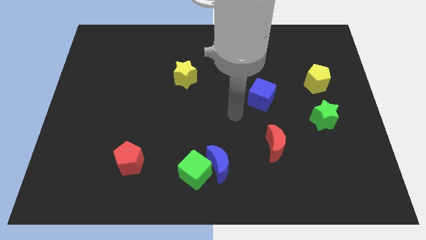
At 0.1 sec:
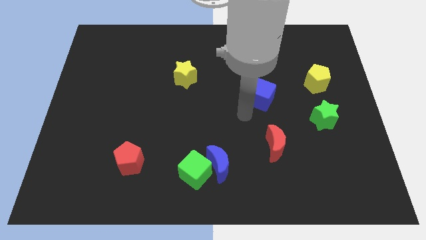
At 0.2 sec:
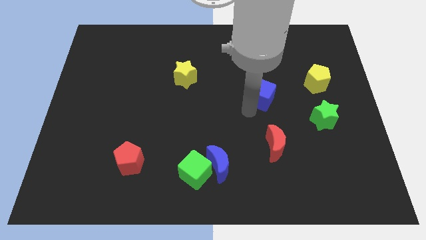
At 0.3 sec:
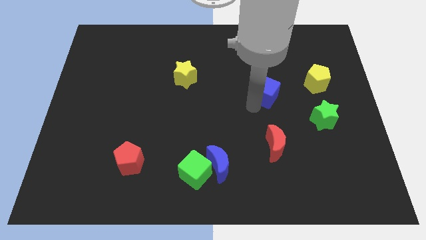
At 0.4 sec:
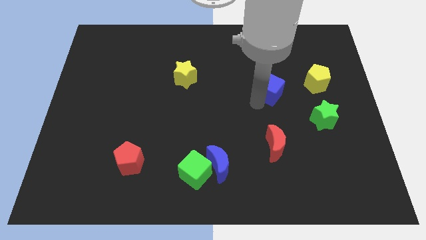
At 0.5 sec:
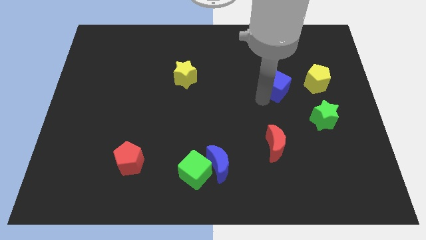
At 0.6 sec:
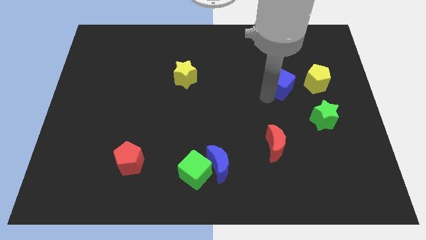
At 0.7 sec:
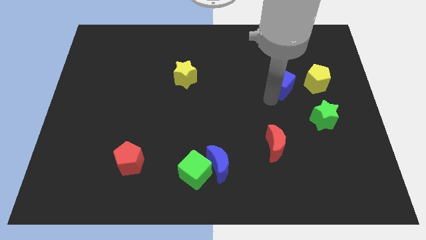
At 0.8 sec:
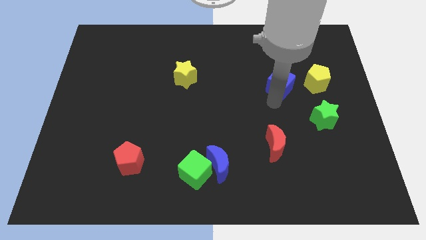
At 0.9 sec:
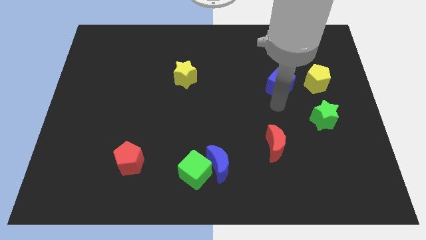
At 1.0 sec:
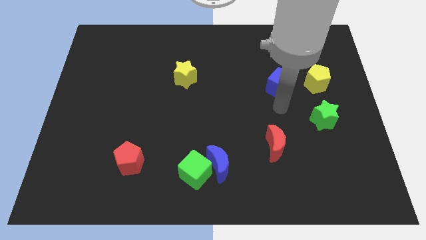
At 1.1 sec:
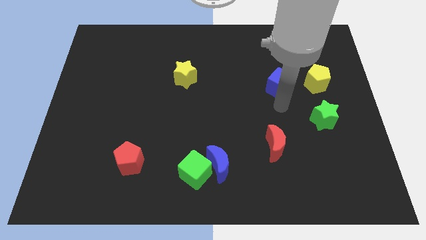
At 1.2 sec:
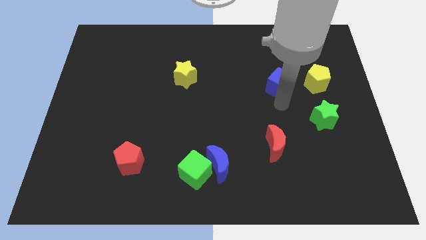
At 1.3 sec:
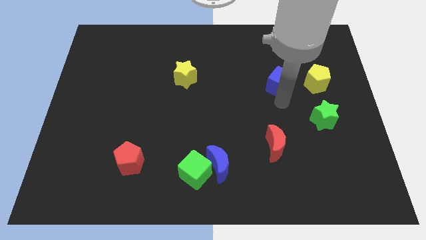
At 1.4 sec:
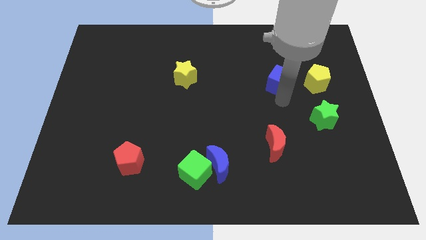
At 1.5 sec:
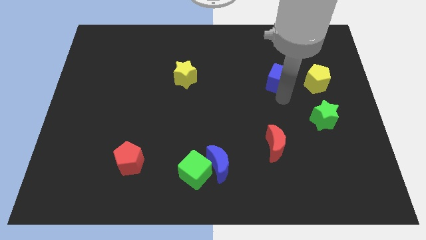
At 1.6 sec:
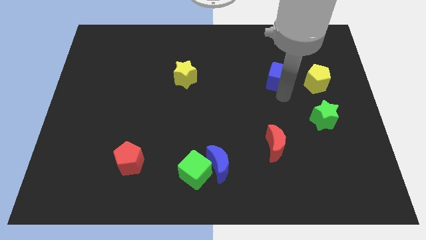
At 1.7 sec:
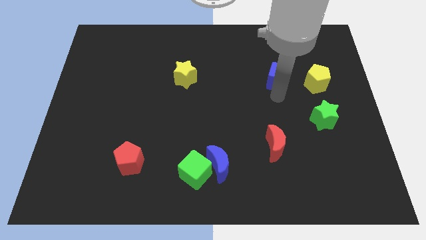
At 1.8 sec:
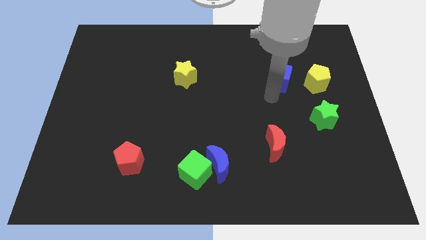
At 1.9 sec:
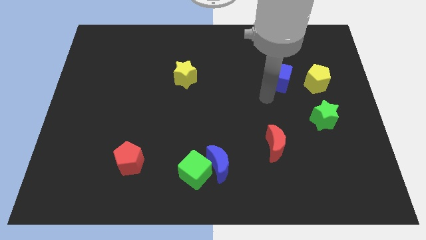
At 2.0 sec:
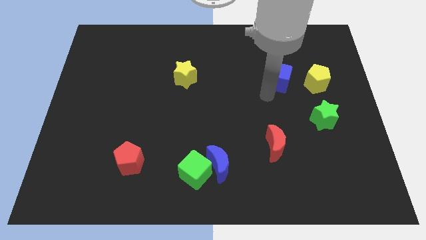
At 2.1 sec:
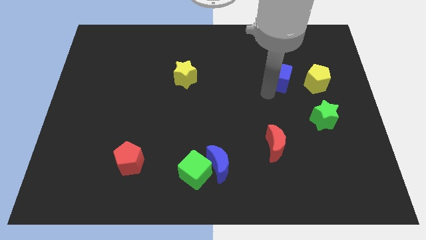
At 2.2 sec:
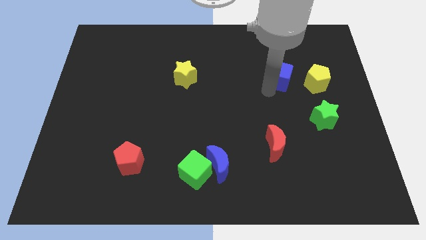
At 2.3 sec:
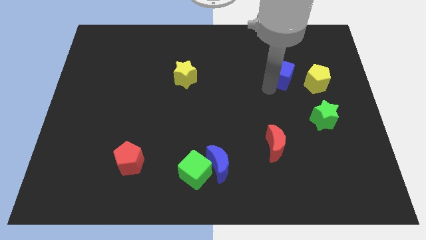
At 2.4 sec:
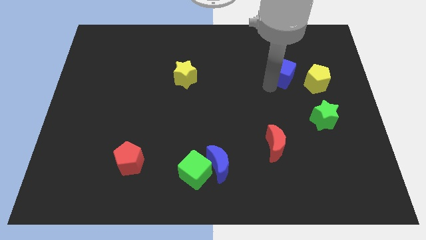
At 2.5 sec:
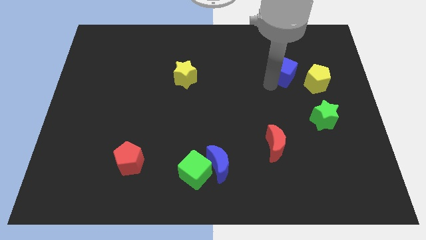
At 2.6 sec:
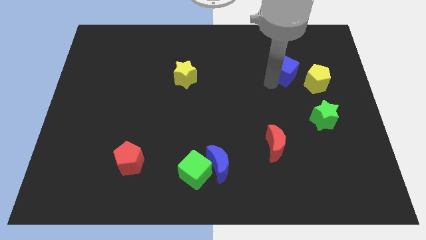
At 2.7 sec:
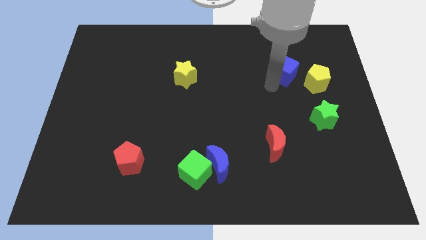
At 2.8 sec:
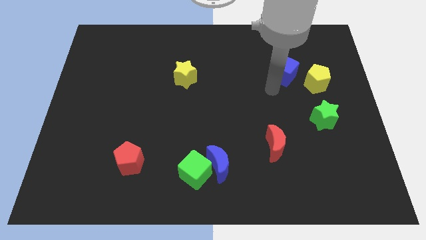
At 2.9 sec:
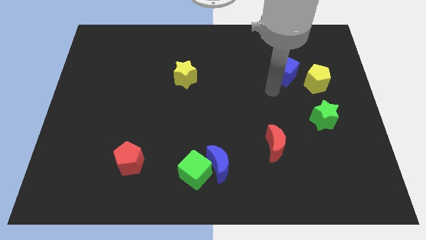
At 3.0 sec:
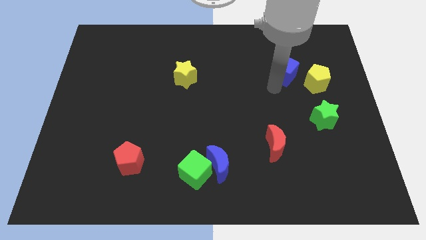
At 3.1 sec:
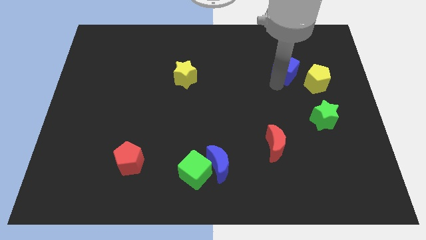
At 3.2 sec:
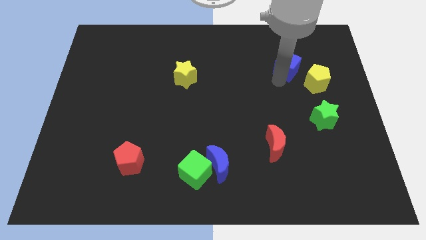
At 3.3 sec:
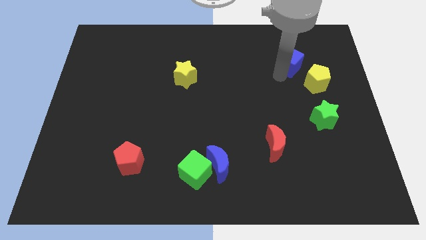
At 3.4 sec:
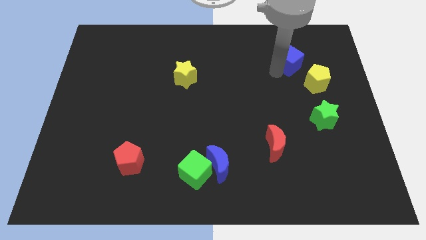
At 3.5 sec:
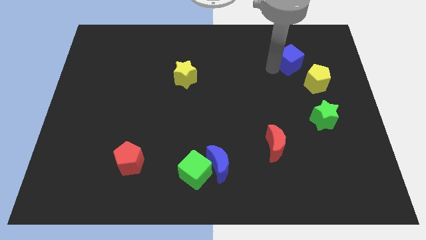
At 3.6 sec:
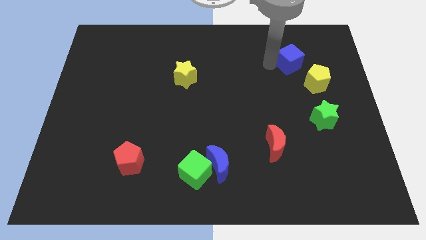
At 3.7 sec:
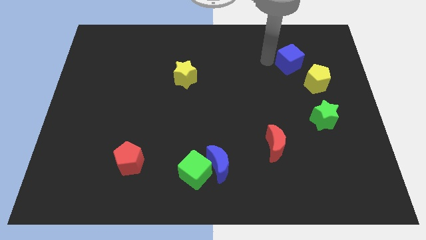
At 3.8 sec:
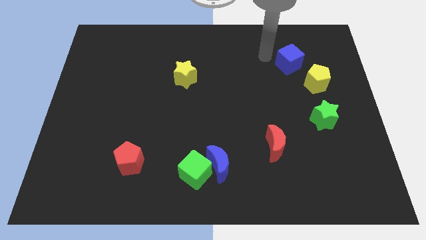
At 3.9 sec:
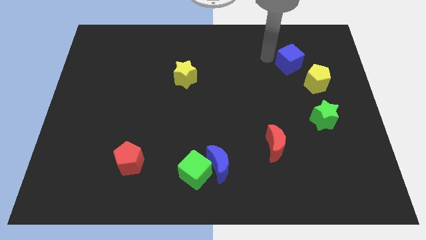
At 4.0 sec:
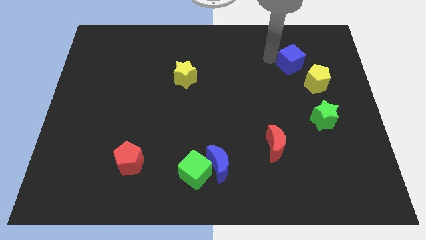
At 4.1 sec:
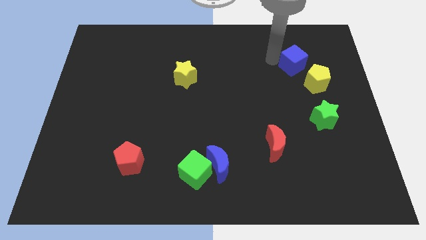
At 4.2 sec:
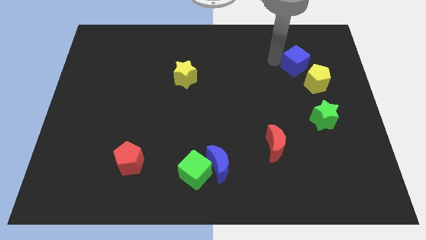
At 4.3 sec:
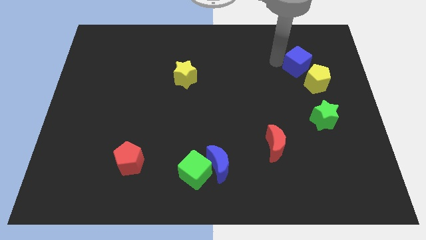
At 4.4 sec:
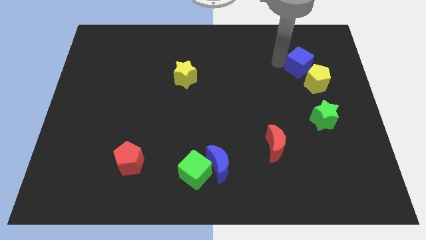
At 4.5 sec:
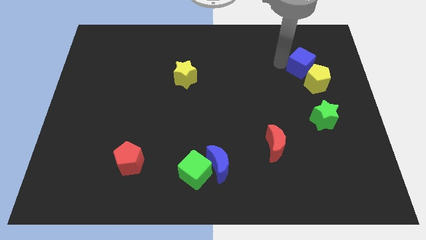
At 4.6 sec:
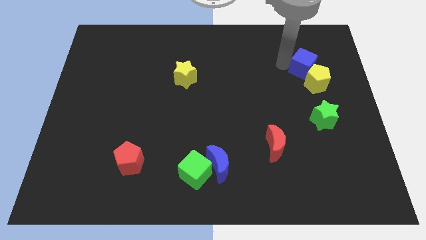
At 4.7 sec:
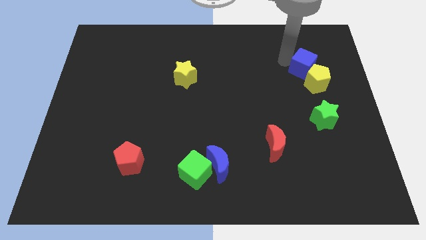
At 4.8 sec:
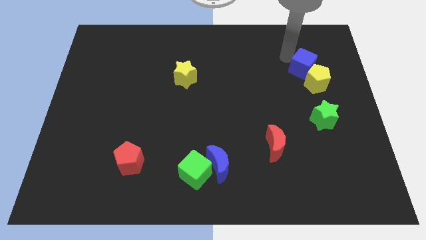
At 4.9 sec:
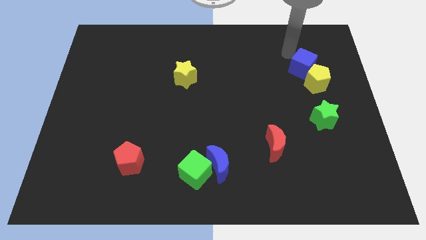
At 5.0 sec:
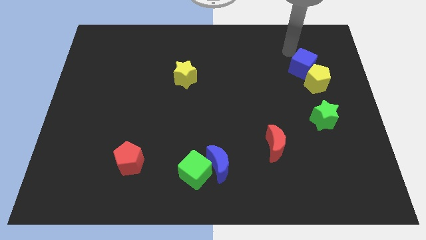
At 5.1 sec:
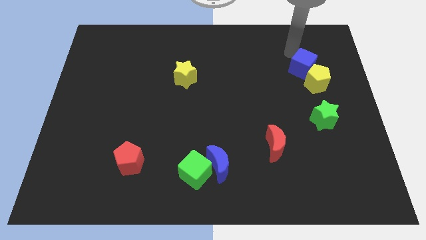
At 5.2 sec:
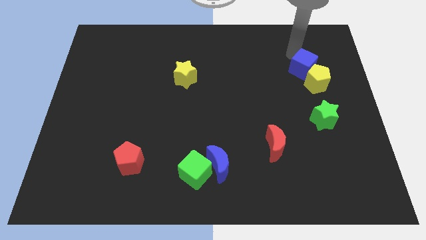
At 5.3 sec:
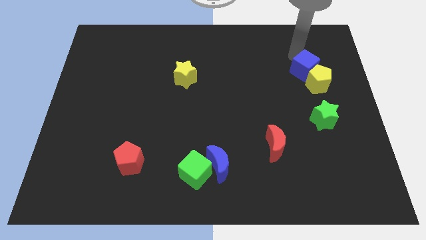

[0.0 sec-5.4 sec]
put the blue cube to the top of the green star

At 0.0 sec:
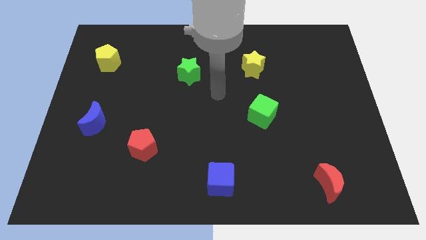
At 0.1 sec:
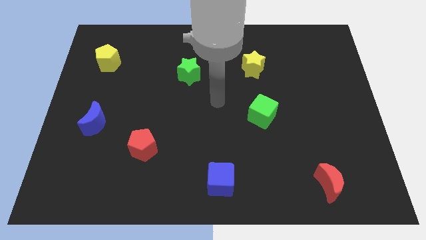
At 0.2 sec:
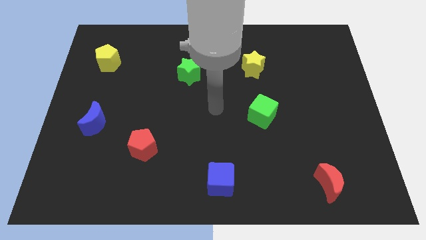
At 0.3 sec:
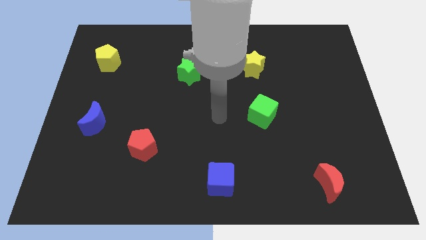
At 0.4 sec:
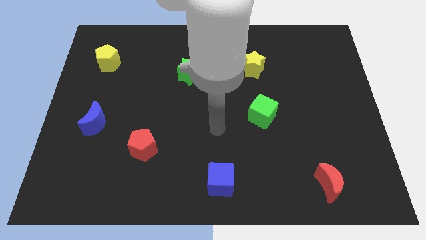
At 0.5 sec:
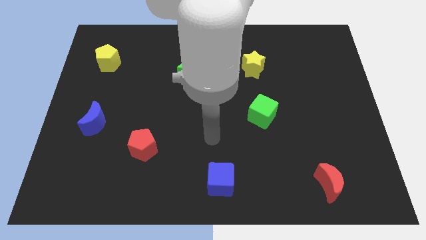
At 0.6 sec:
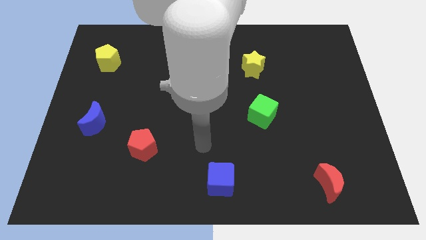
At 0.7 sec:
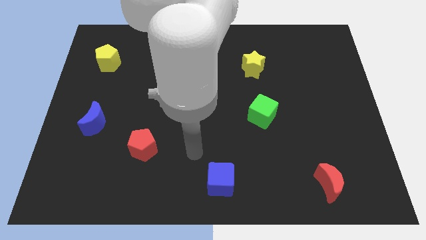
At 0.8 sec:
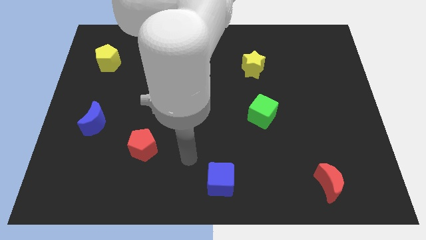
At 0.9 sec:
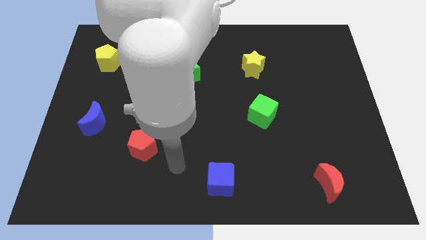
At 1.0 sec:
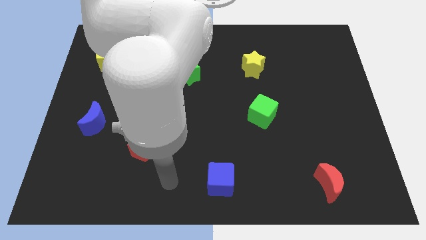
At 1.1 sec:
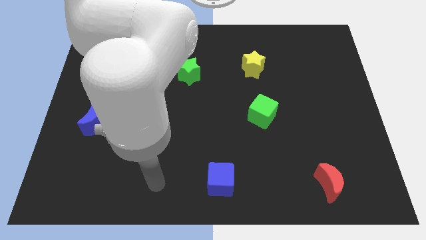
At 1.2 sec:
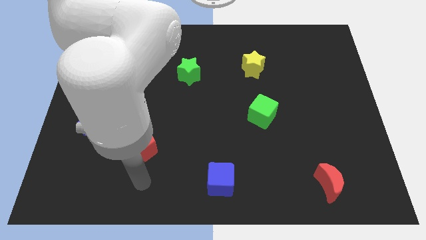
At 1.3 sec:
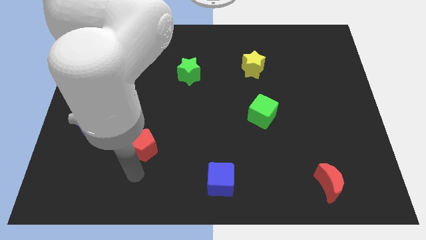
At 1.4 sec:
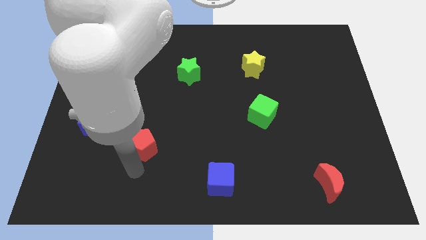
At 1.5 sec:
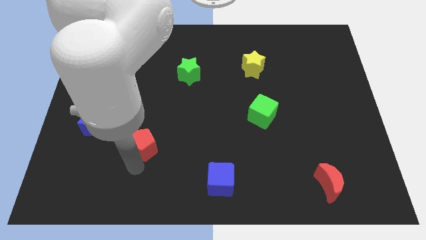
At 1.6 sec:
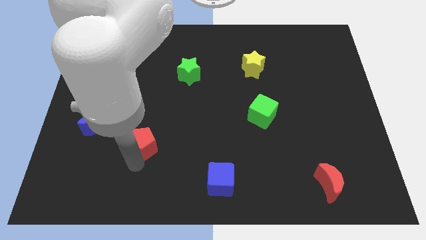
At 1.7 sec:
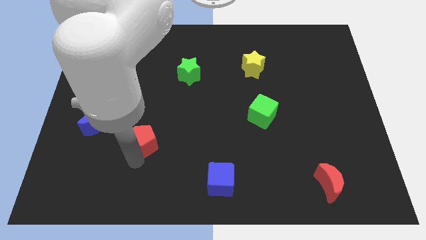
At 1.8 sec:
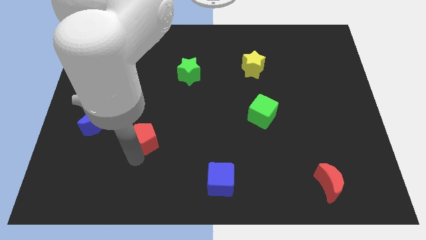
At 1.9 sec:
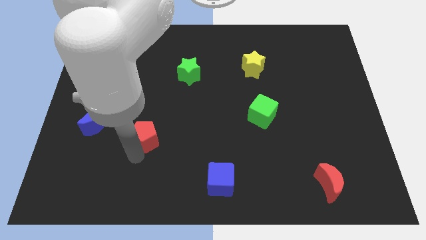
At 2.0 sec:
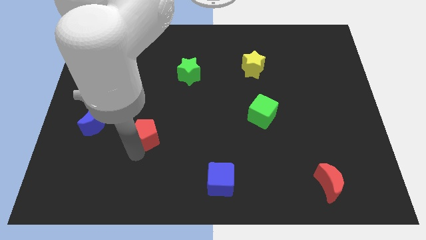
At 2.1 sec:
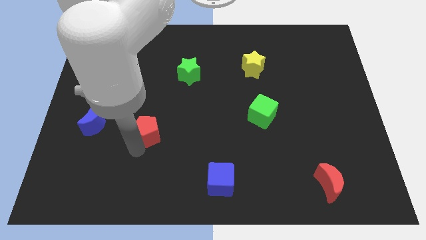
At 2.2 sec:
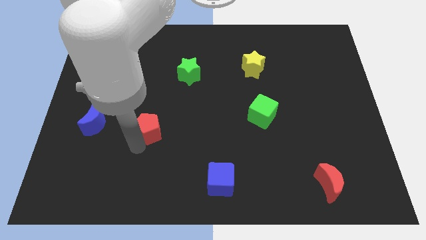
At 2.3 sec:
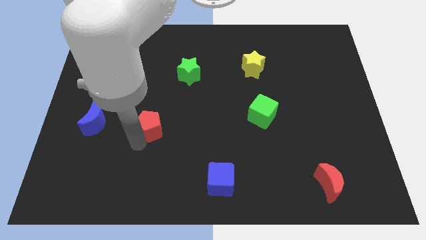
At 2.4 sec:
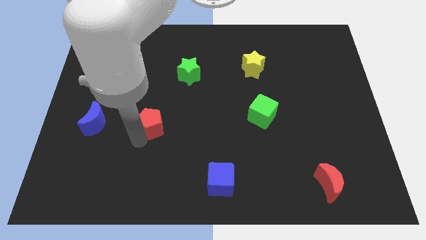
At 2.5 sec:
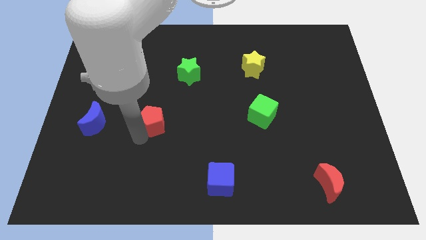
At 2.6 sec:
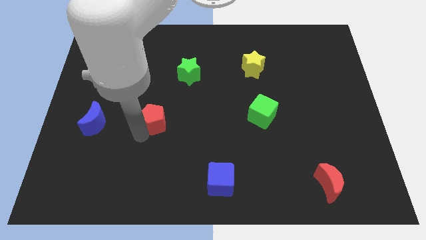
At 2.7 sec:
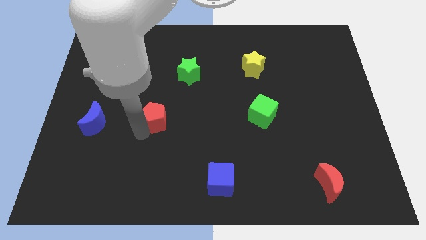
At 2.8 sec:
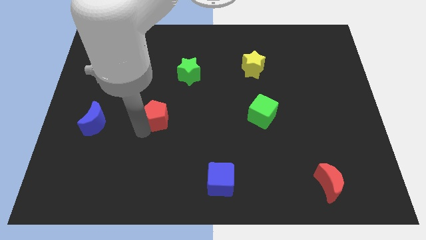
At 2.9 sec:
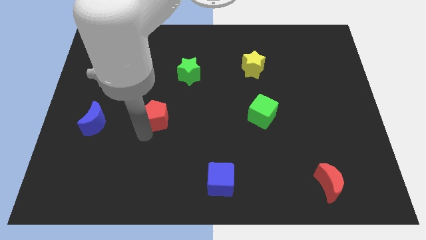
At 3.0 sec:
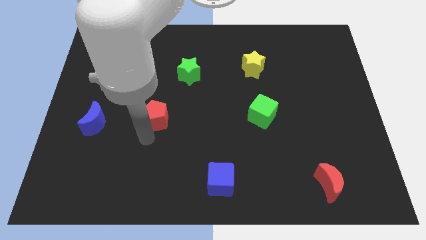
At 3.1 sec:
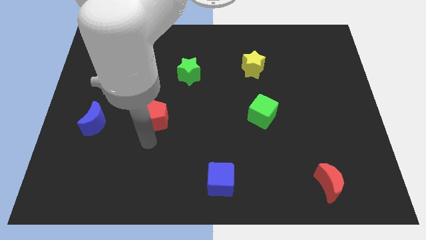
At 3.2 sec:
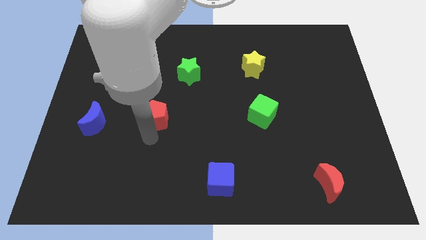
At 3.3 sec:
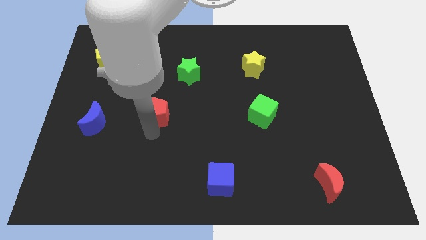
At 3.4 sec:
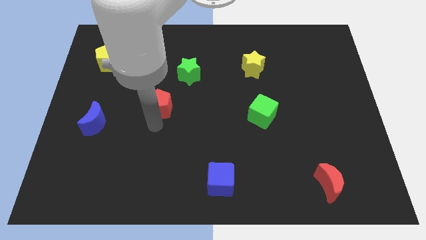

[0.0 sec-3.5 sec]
put the red pentagon to the bottom left of the green star
